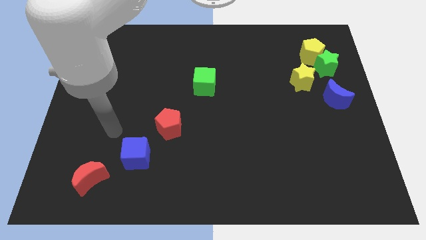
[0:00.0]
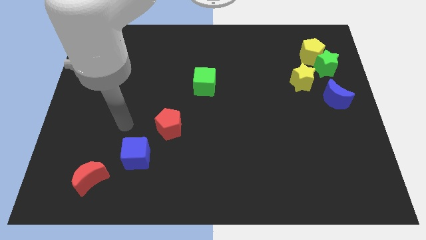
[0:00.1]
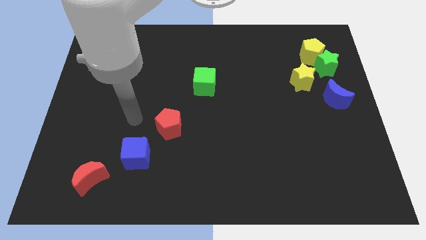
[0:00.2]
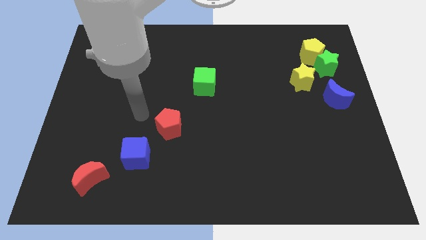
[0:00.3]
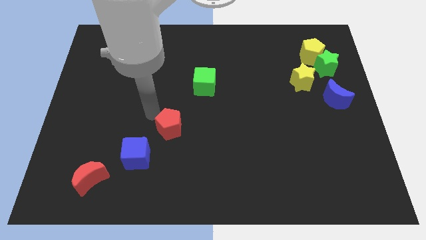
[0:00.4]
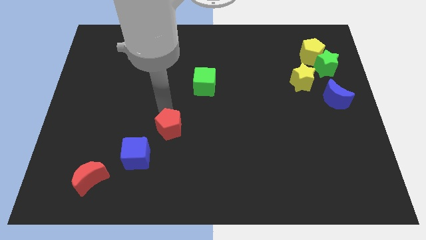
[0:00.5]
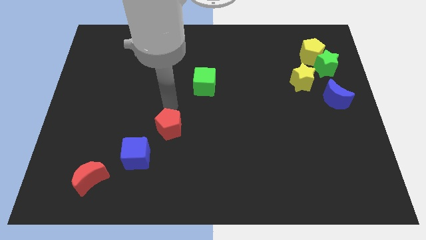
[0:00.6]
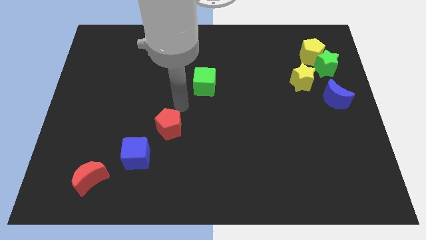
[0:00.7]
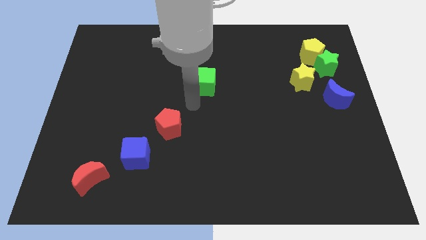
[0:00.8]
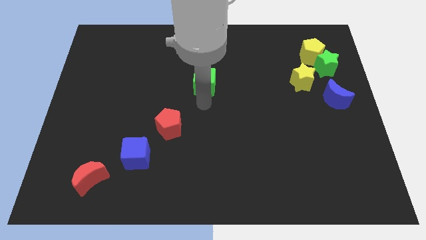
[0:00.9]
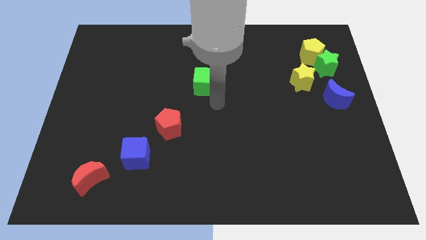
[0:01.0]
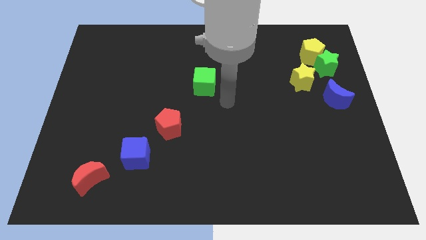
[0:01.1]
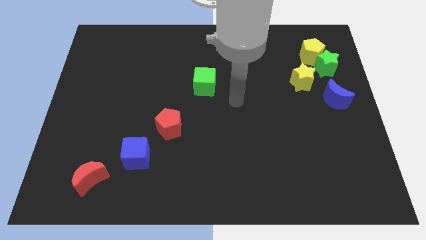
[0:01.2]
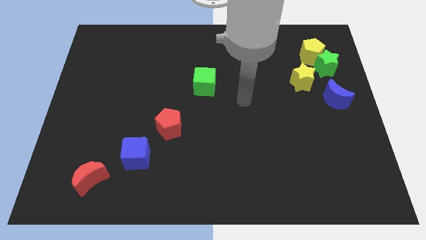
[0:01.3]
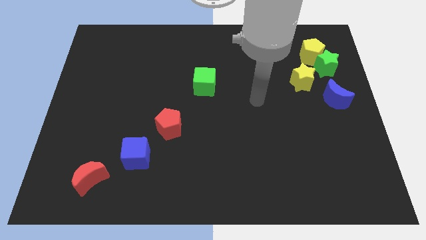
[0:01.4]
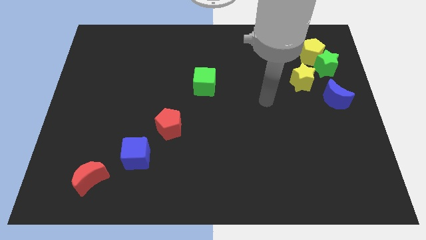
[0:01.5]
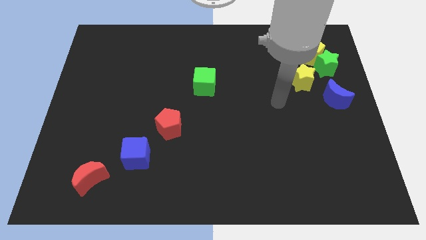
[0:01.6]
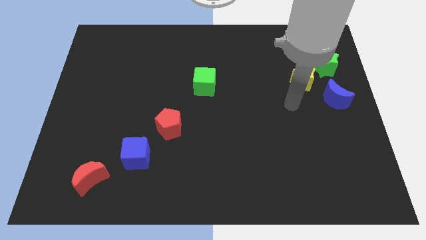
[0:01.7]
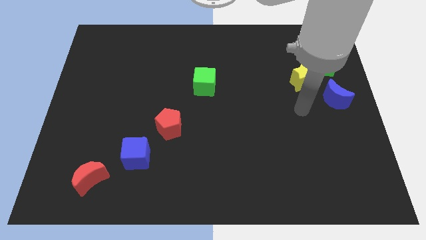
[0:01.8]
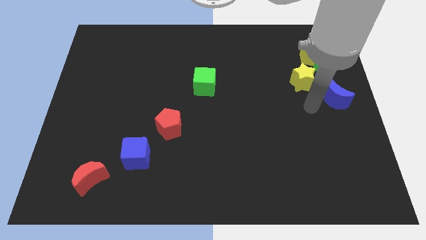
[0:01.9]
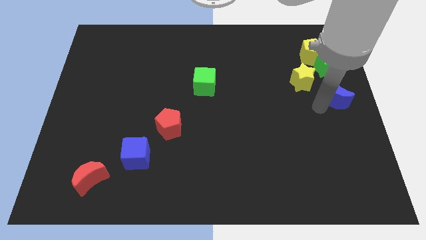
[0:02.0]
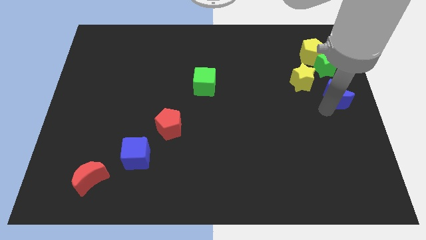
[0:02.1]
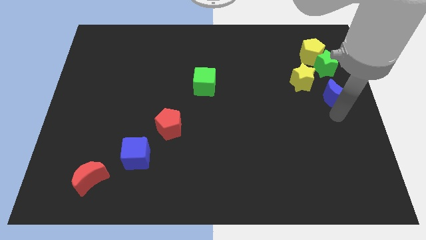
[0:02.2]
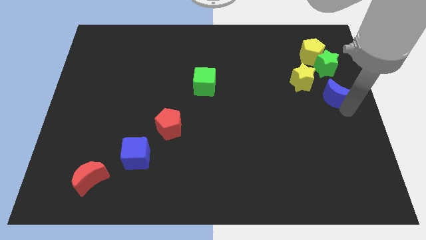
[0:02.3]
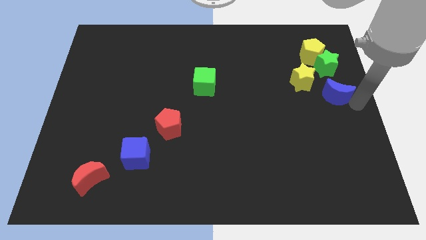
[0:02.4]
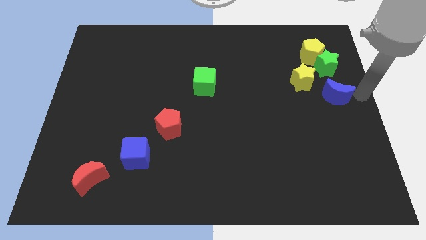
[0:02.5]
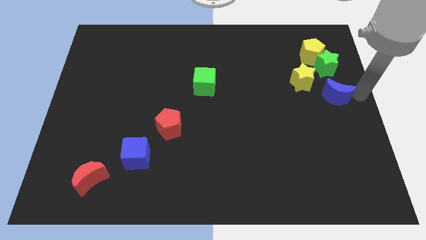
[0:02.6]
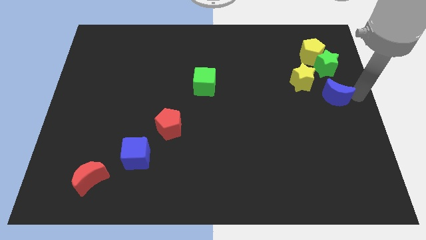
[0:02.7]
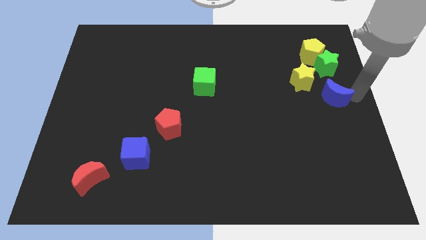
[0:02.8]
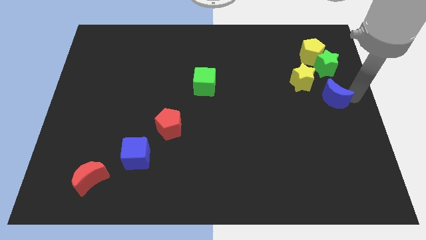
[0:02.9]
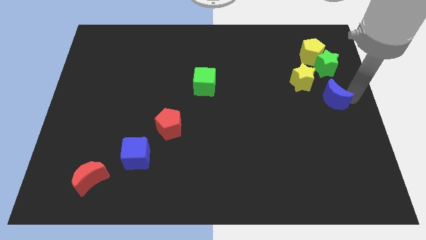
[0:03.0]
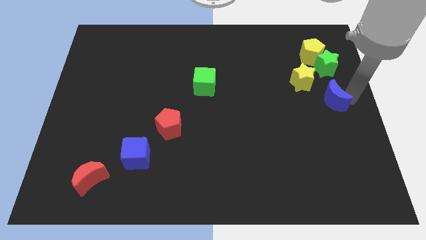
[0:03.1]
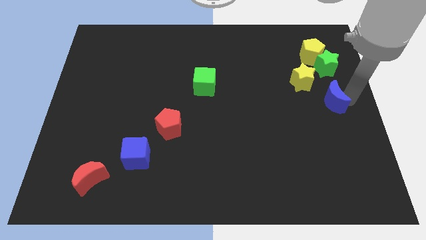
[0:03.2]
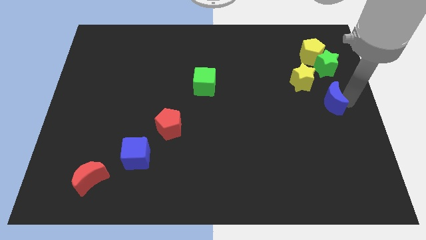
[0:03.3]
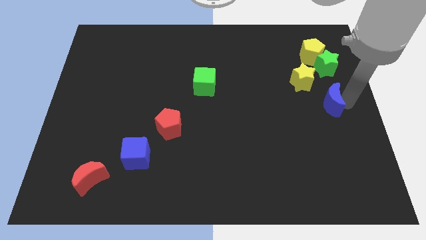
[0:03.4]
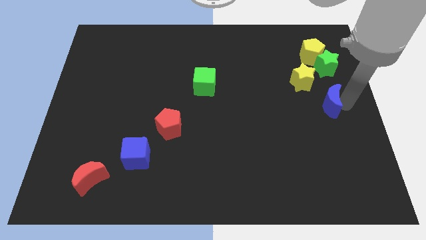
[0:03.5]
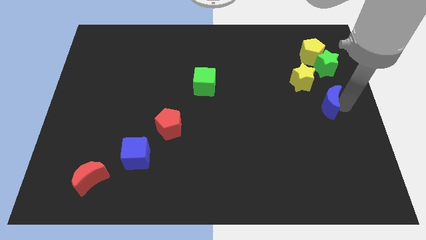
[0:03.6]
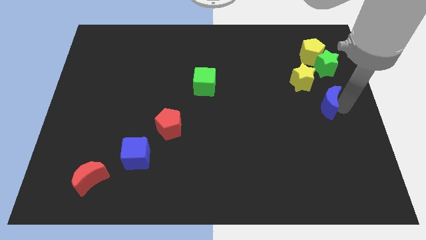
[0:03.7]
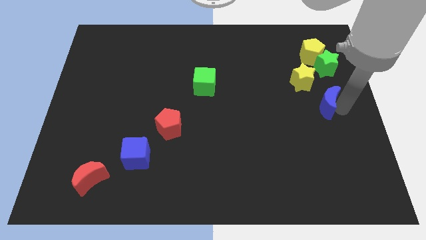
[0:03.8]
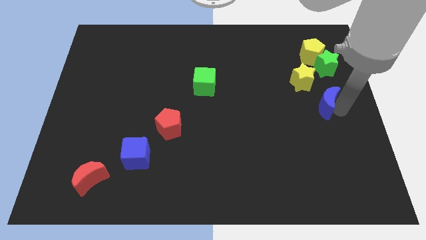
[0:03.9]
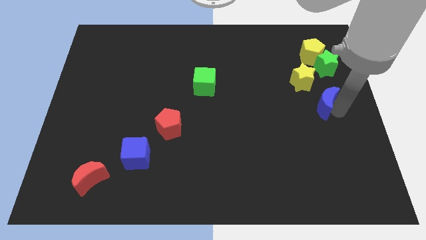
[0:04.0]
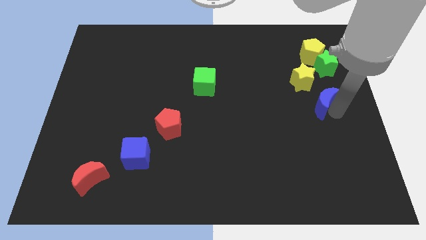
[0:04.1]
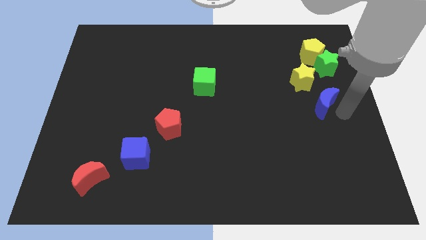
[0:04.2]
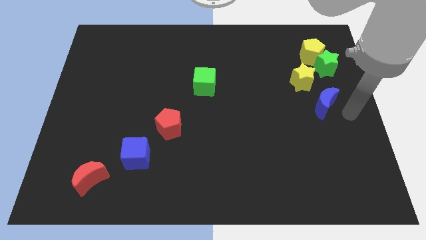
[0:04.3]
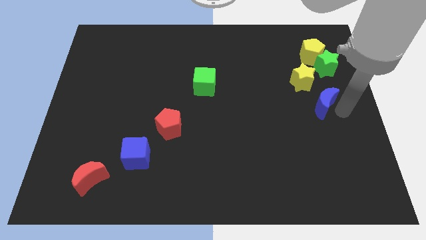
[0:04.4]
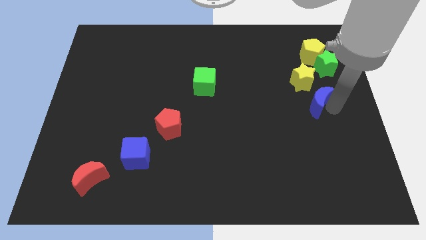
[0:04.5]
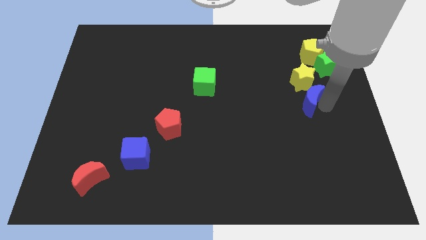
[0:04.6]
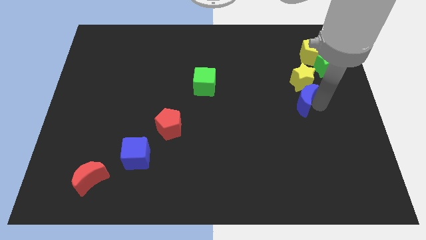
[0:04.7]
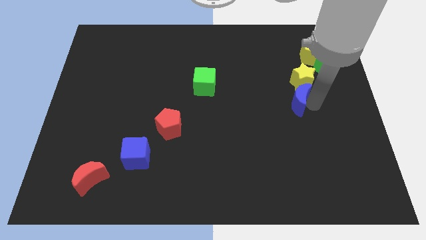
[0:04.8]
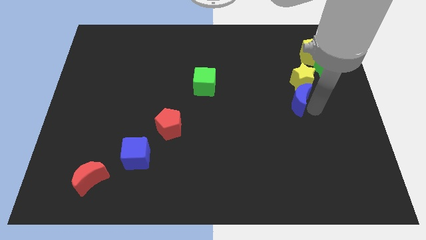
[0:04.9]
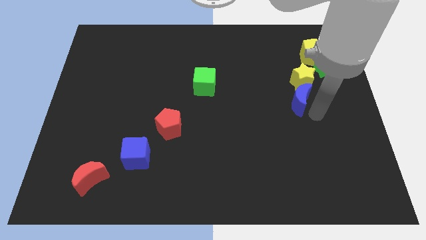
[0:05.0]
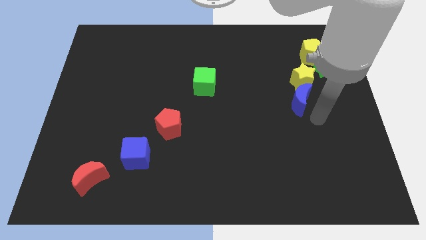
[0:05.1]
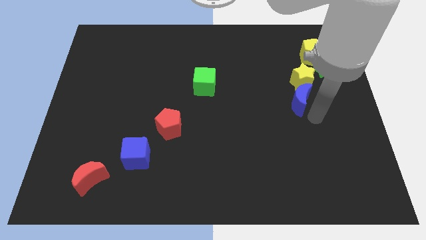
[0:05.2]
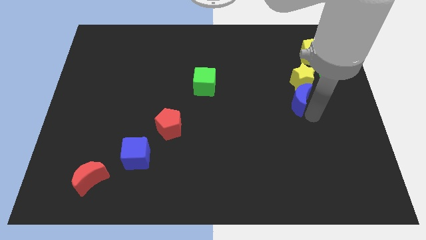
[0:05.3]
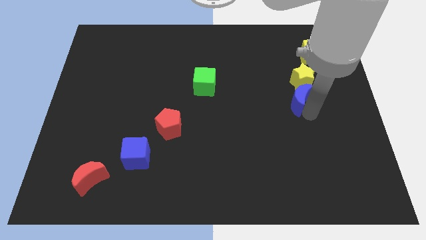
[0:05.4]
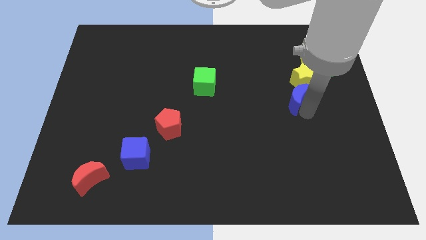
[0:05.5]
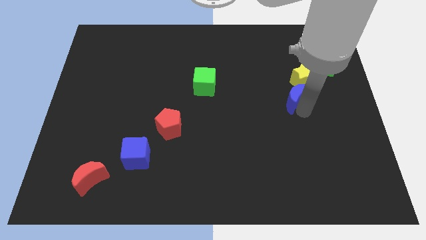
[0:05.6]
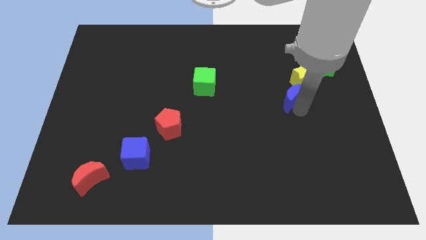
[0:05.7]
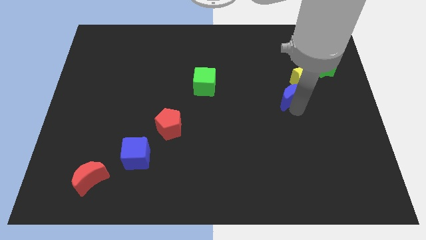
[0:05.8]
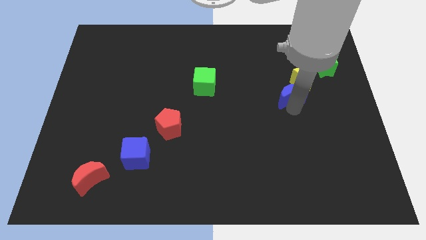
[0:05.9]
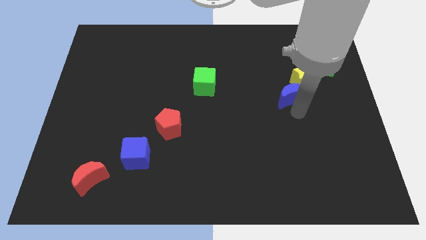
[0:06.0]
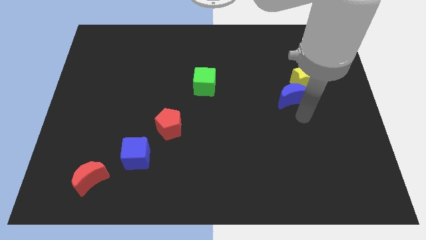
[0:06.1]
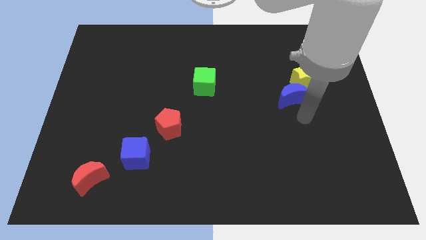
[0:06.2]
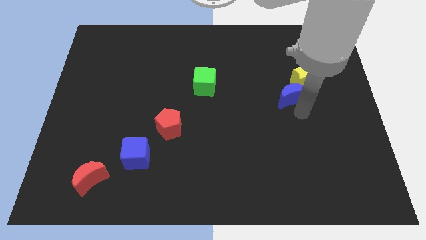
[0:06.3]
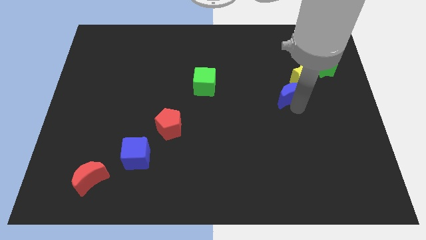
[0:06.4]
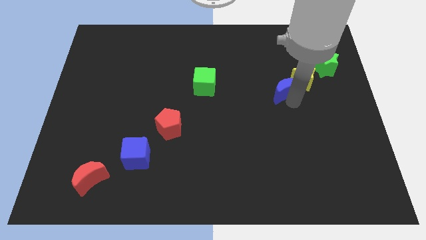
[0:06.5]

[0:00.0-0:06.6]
push the blue moon slightly upwards and left diagonally

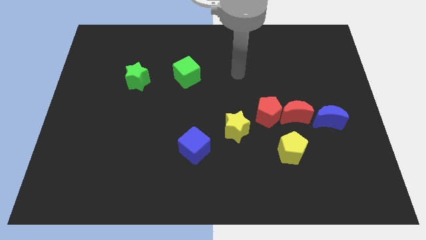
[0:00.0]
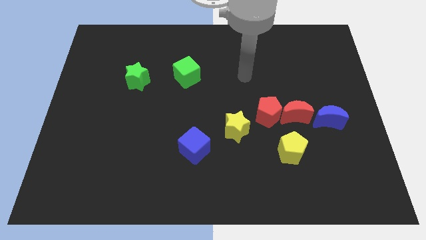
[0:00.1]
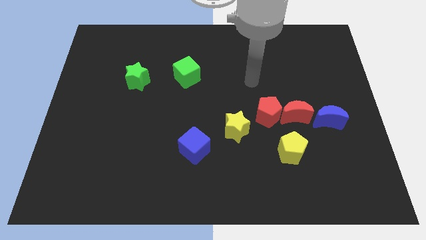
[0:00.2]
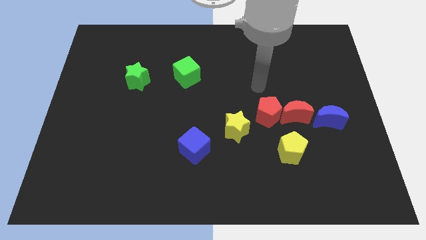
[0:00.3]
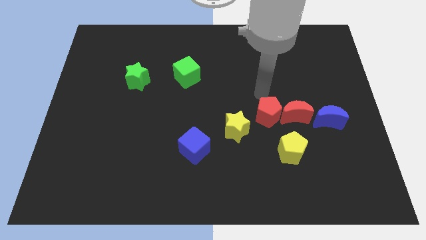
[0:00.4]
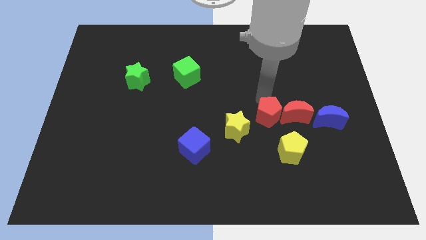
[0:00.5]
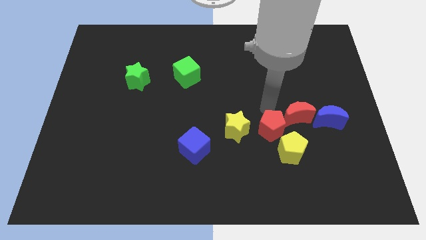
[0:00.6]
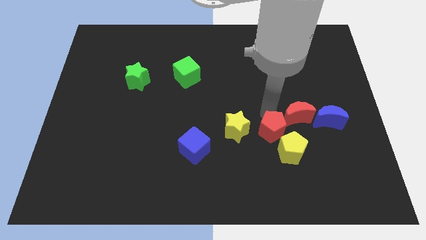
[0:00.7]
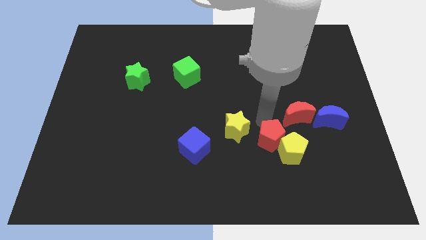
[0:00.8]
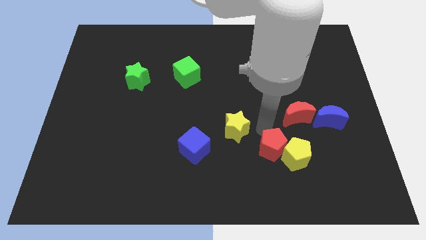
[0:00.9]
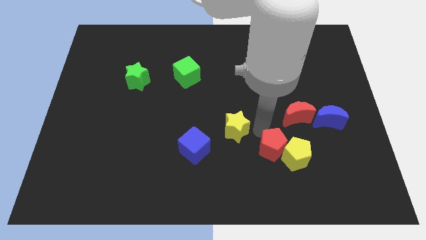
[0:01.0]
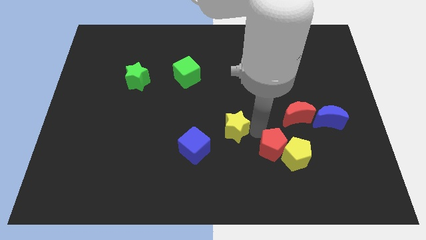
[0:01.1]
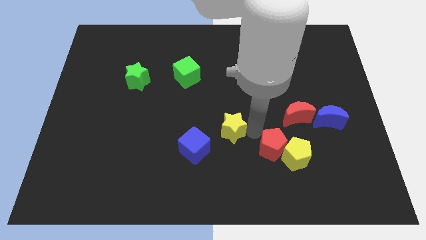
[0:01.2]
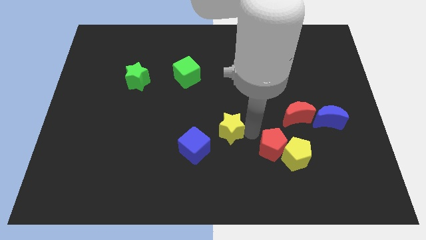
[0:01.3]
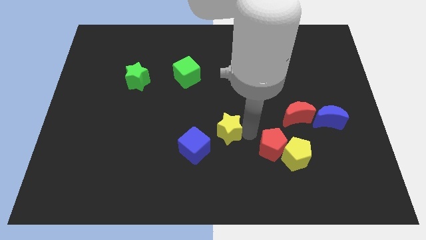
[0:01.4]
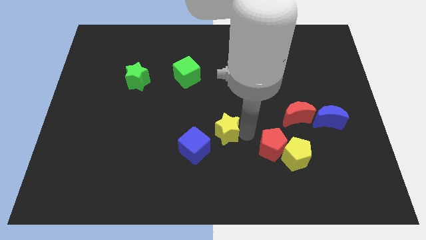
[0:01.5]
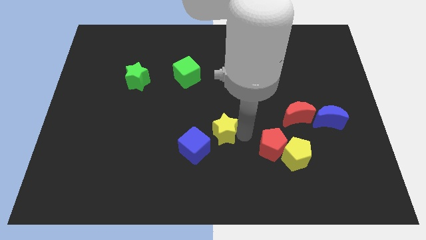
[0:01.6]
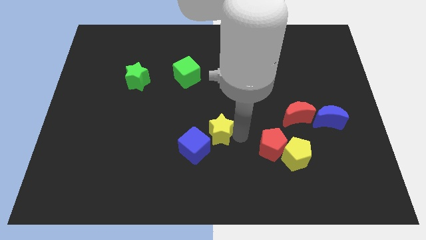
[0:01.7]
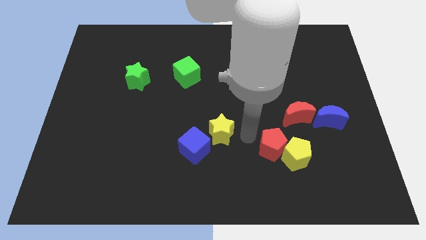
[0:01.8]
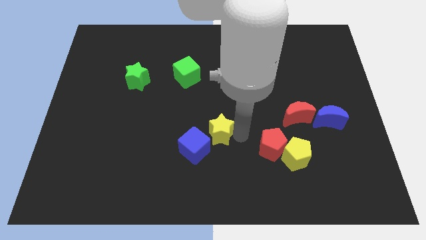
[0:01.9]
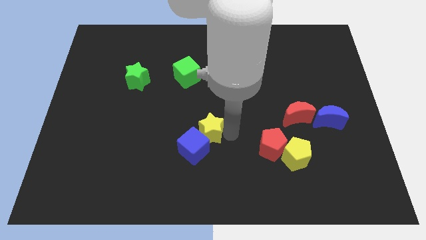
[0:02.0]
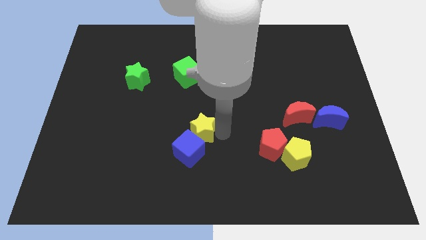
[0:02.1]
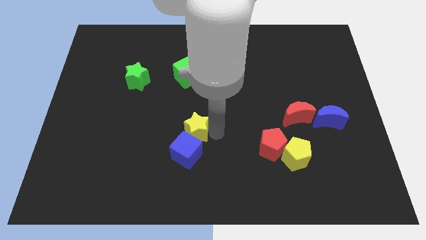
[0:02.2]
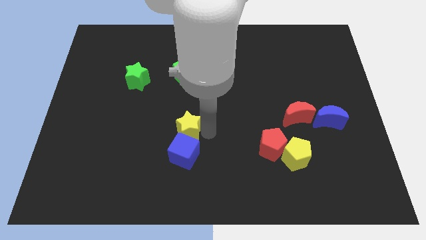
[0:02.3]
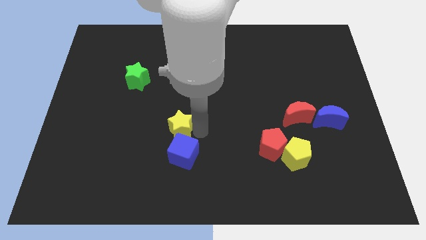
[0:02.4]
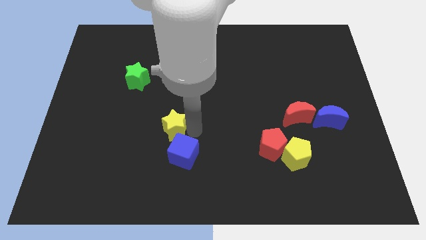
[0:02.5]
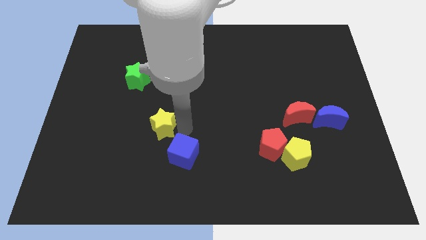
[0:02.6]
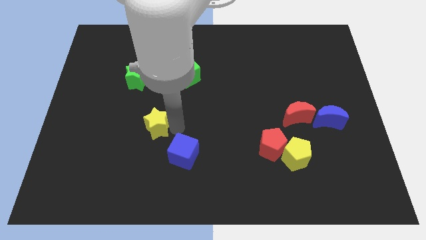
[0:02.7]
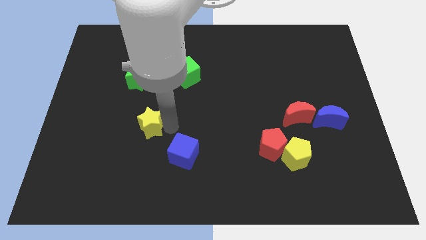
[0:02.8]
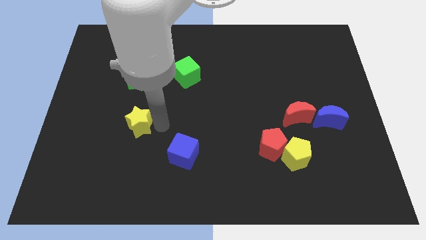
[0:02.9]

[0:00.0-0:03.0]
push the yellow star to the left
